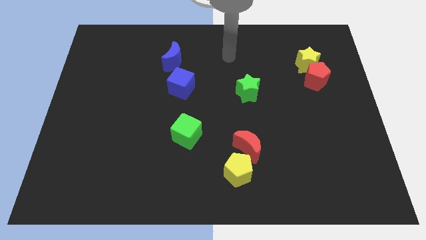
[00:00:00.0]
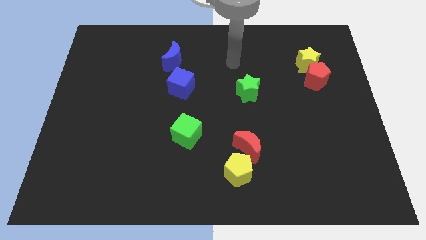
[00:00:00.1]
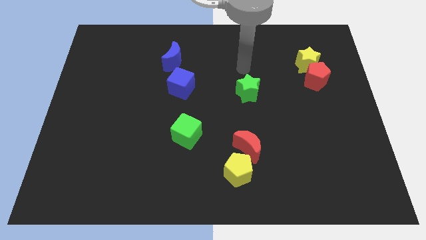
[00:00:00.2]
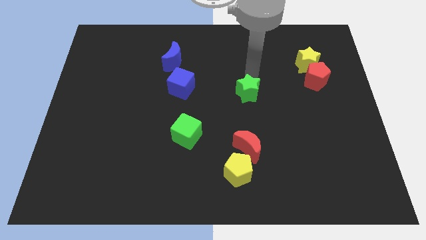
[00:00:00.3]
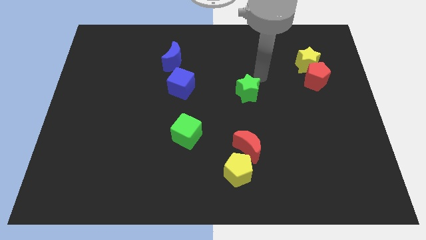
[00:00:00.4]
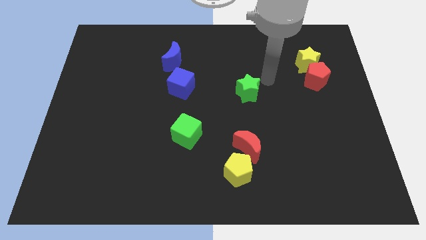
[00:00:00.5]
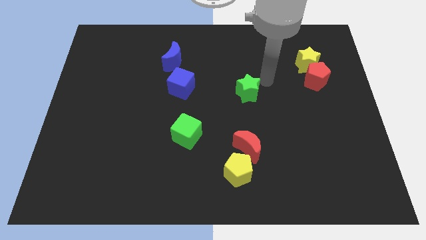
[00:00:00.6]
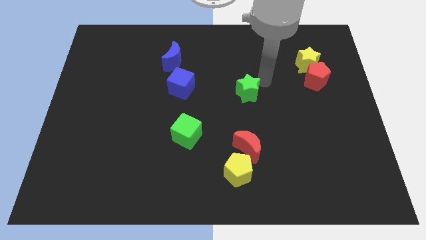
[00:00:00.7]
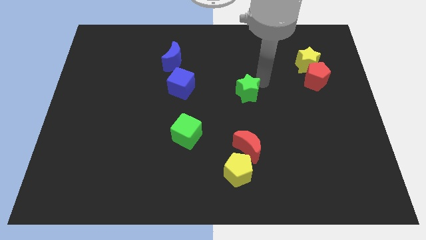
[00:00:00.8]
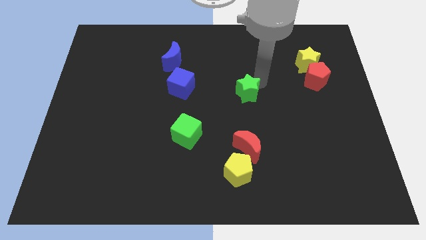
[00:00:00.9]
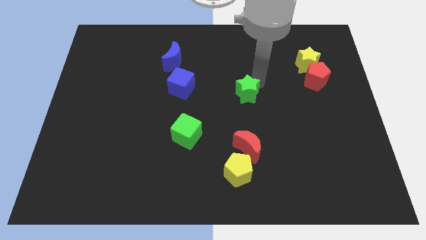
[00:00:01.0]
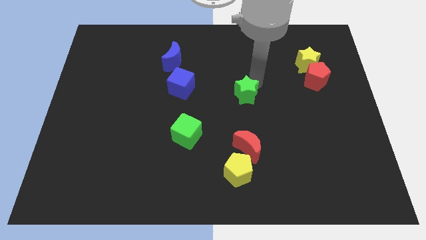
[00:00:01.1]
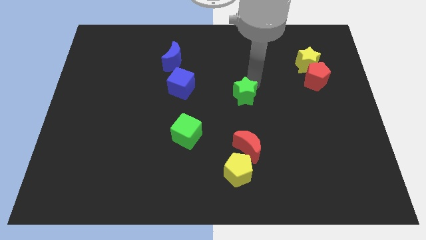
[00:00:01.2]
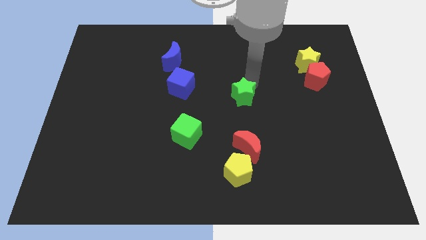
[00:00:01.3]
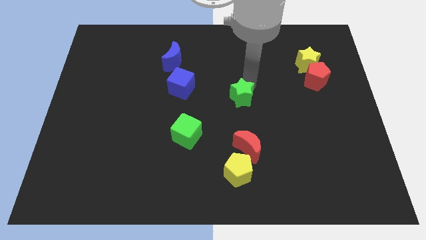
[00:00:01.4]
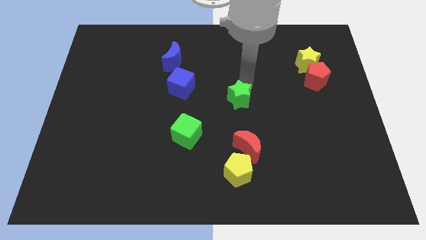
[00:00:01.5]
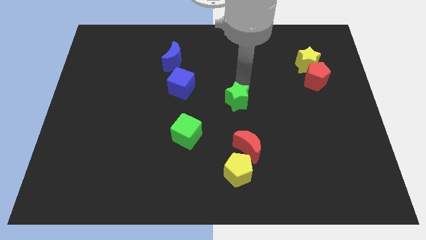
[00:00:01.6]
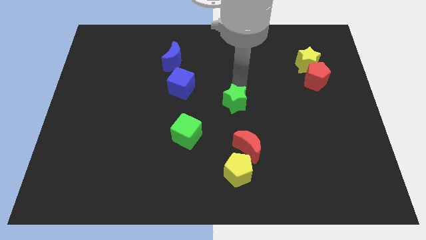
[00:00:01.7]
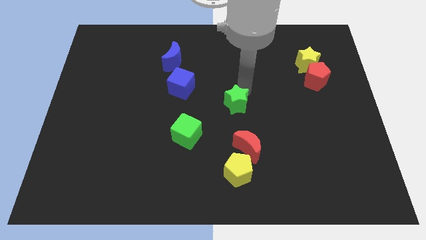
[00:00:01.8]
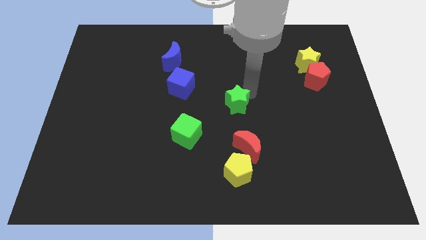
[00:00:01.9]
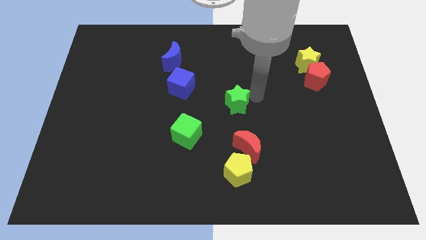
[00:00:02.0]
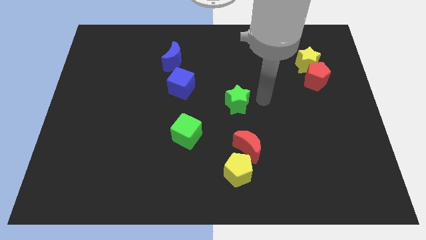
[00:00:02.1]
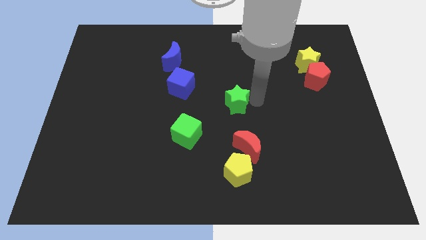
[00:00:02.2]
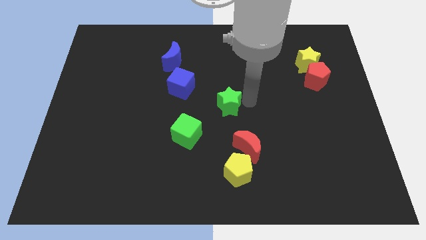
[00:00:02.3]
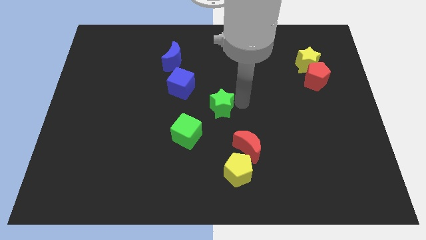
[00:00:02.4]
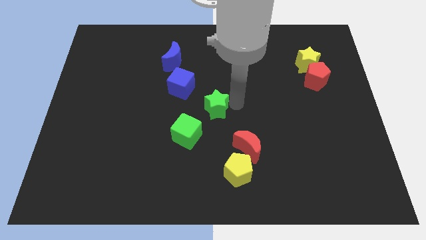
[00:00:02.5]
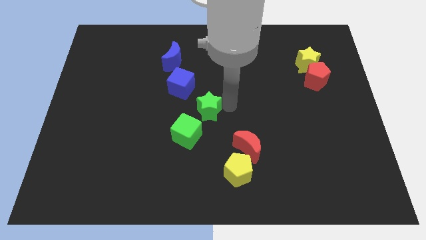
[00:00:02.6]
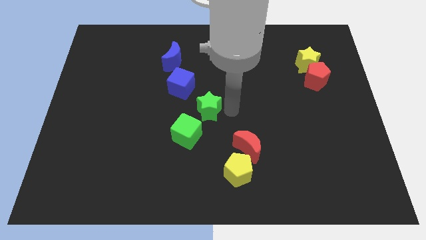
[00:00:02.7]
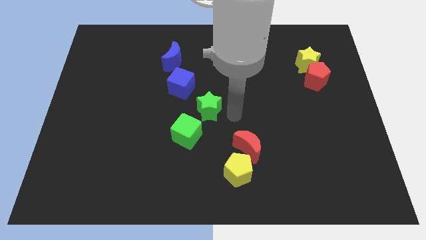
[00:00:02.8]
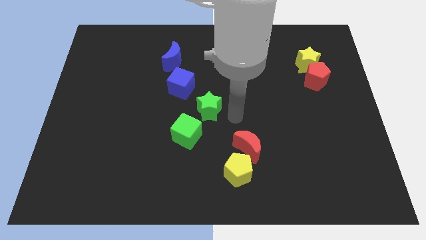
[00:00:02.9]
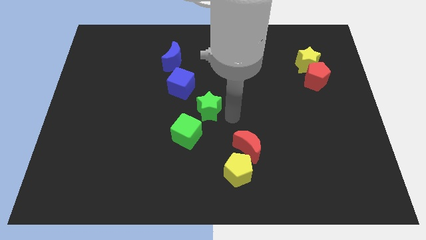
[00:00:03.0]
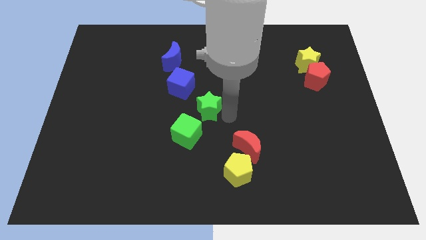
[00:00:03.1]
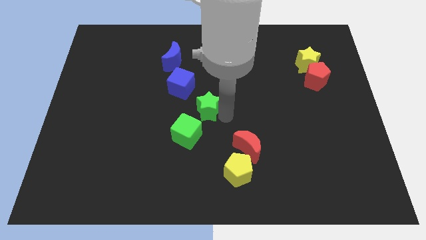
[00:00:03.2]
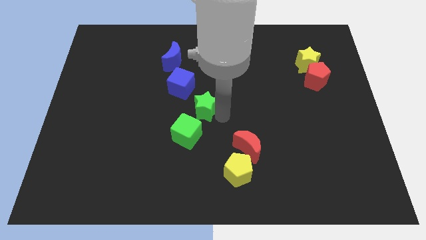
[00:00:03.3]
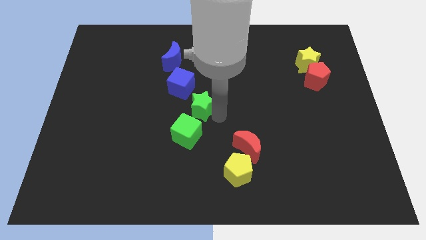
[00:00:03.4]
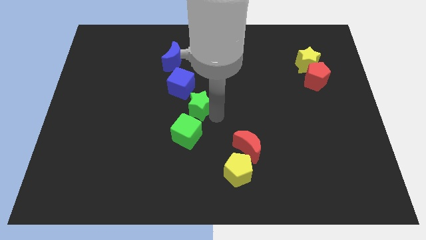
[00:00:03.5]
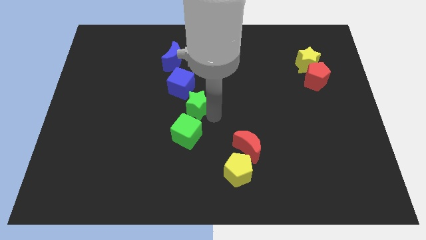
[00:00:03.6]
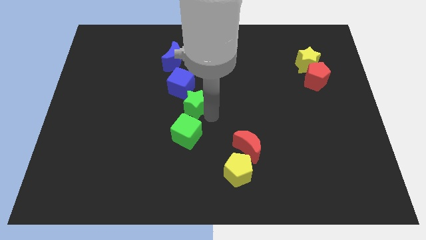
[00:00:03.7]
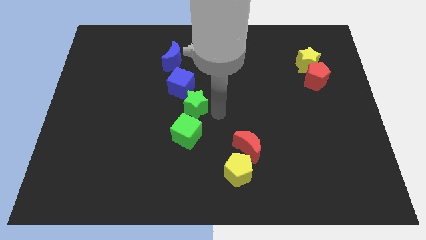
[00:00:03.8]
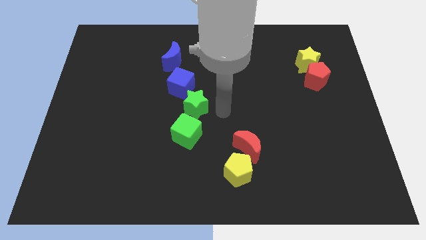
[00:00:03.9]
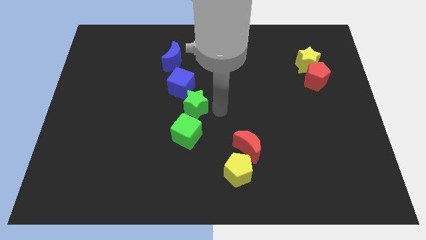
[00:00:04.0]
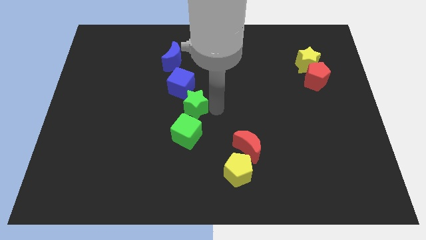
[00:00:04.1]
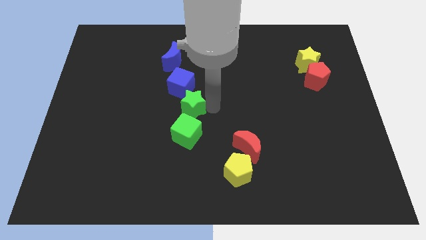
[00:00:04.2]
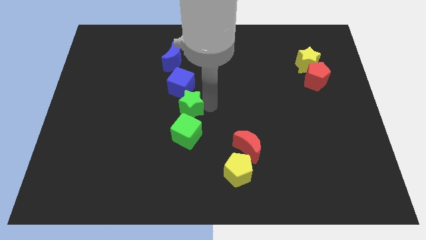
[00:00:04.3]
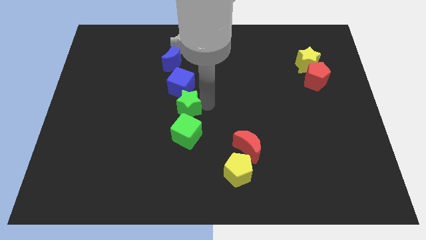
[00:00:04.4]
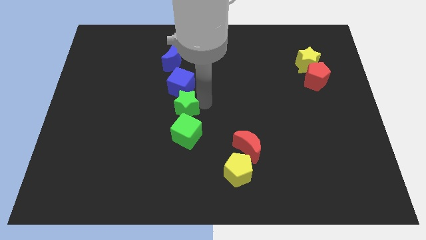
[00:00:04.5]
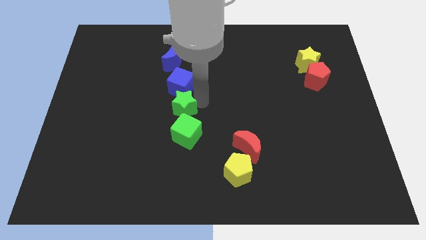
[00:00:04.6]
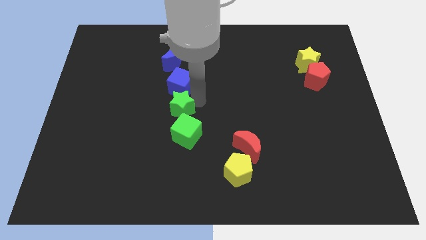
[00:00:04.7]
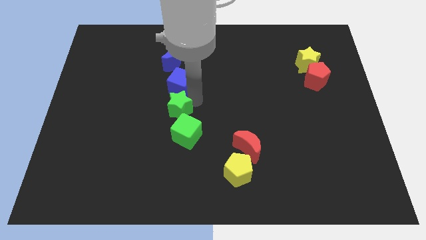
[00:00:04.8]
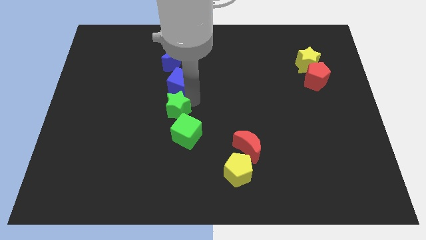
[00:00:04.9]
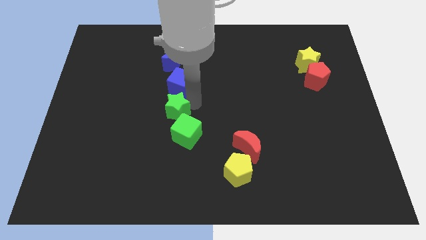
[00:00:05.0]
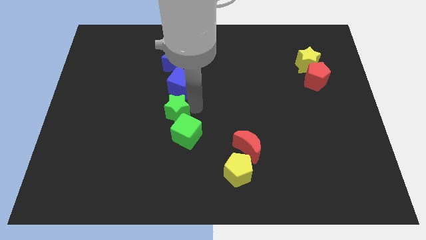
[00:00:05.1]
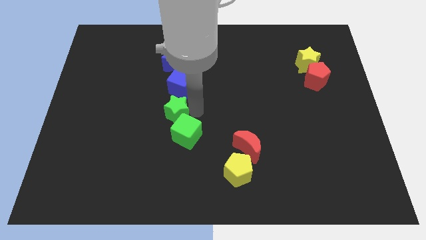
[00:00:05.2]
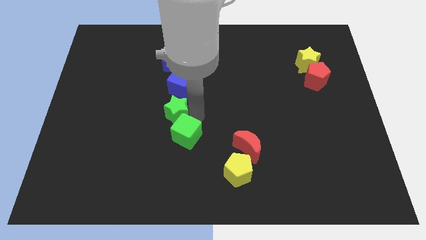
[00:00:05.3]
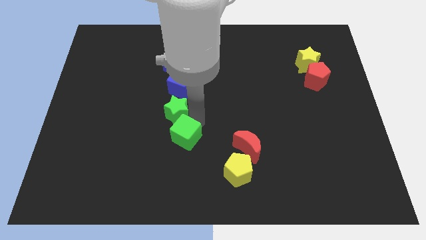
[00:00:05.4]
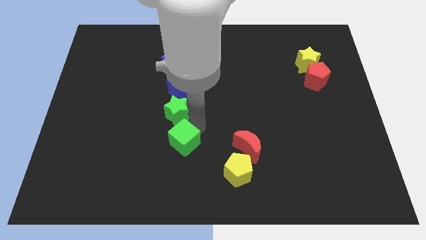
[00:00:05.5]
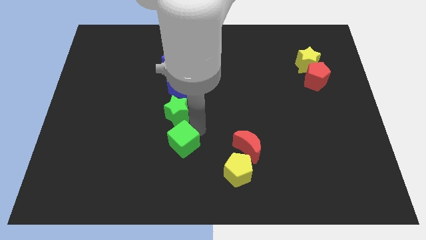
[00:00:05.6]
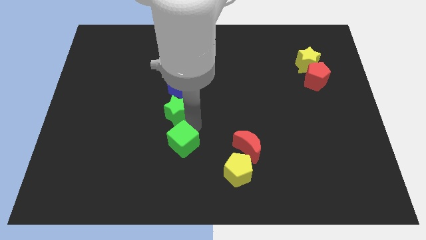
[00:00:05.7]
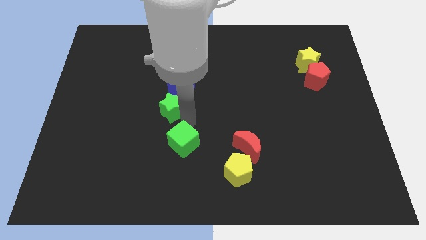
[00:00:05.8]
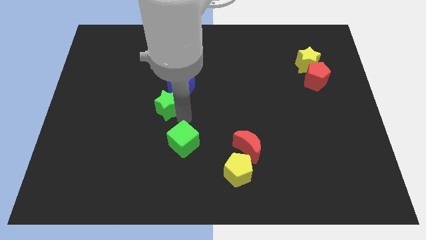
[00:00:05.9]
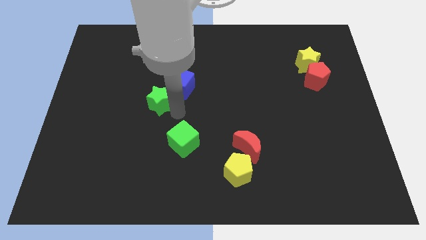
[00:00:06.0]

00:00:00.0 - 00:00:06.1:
slide the green star left

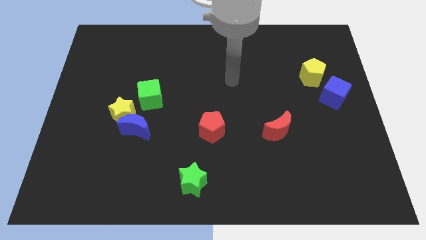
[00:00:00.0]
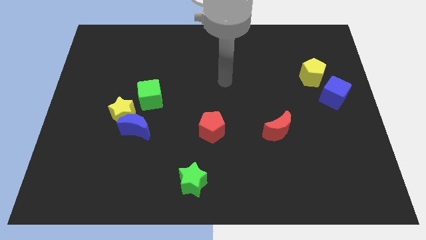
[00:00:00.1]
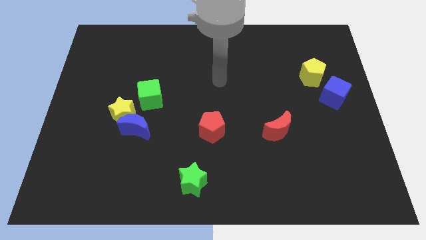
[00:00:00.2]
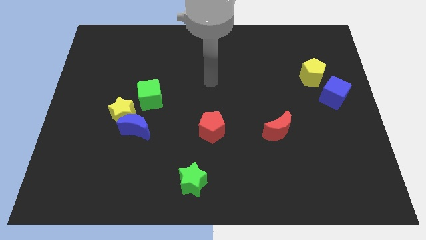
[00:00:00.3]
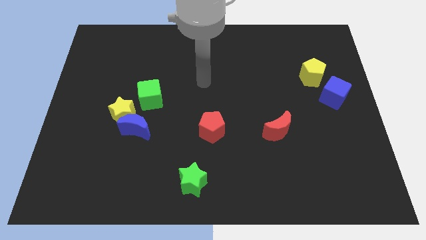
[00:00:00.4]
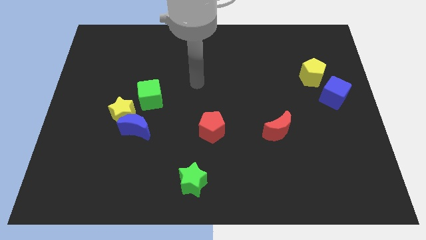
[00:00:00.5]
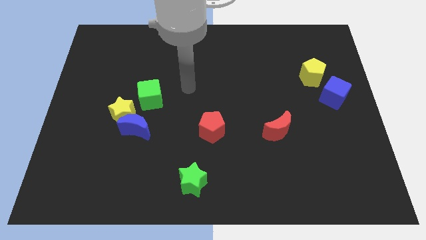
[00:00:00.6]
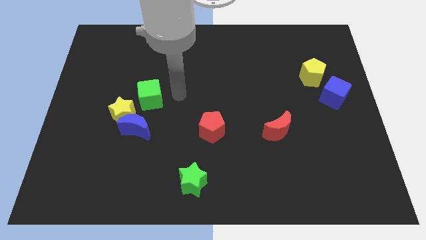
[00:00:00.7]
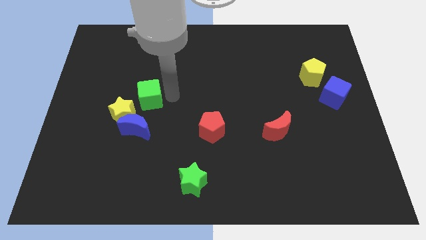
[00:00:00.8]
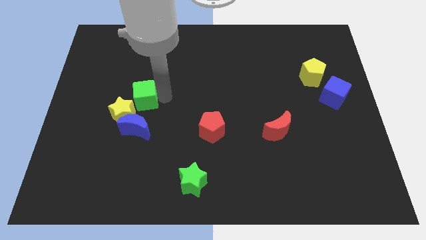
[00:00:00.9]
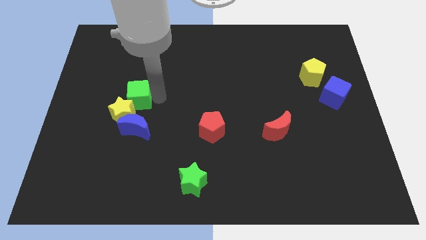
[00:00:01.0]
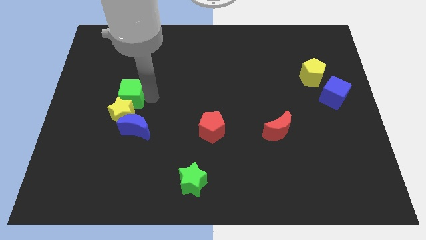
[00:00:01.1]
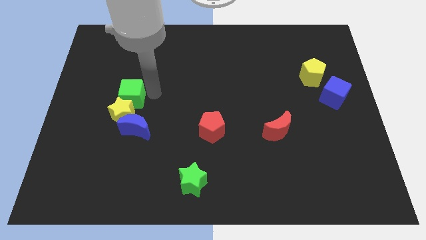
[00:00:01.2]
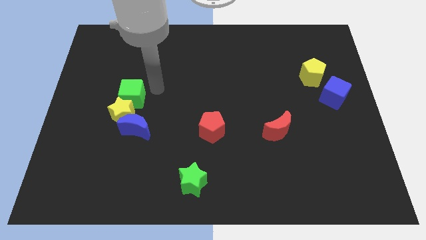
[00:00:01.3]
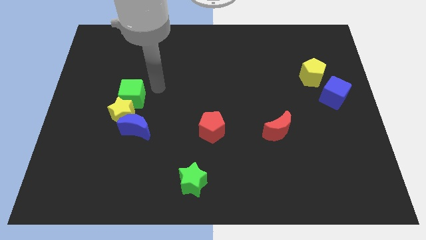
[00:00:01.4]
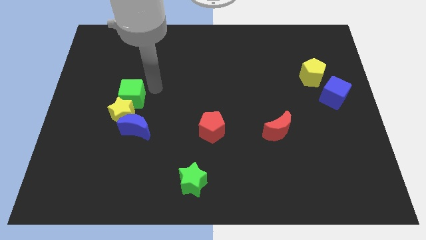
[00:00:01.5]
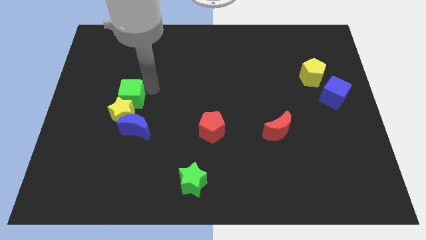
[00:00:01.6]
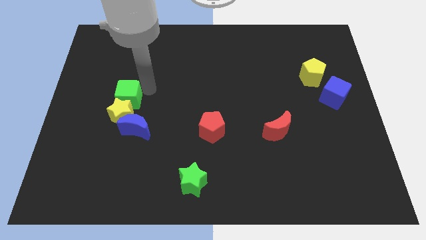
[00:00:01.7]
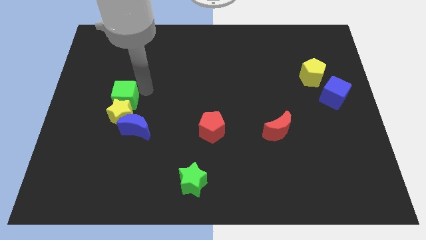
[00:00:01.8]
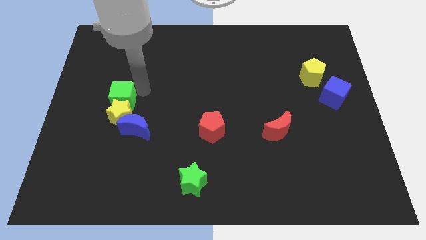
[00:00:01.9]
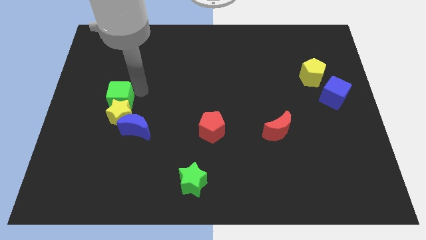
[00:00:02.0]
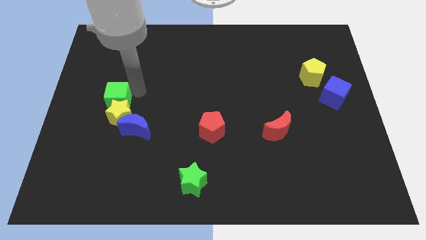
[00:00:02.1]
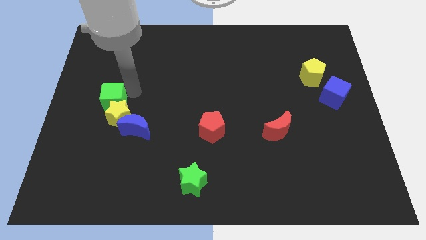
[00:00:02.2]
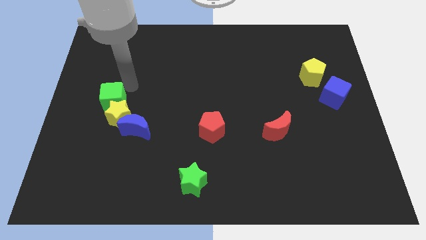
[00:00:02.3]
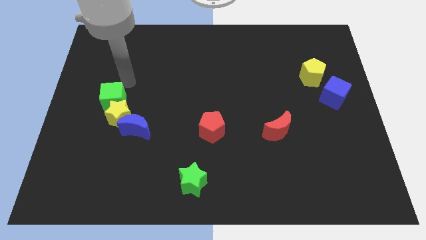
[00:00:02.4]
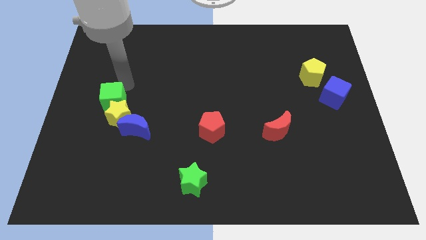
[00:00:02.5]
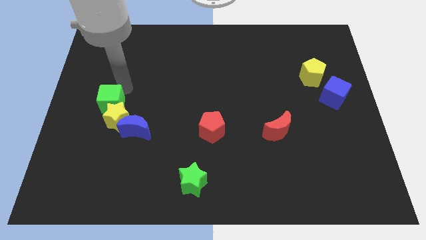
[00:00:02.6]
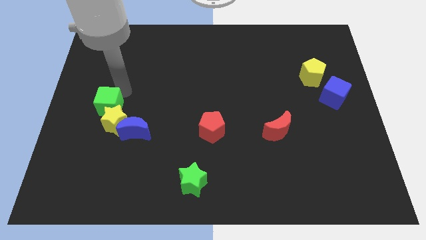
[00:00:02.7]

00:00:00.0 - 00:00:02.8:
slightly move the green cube down and left diagonally
